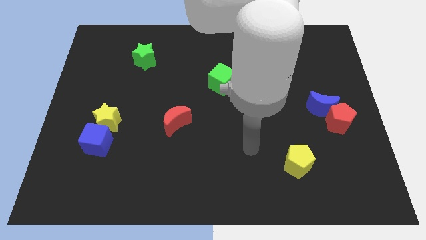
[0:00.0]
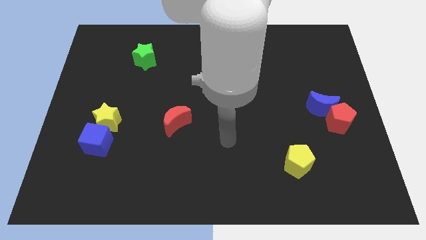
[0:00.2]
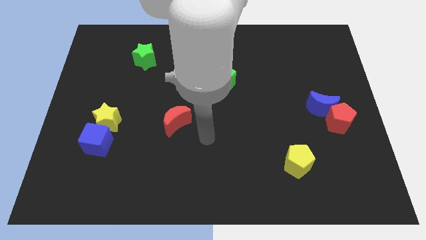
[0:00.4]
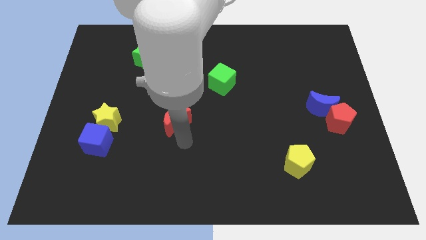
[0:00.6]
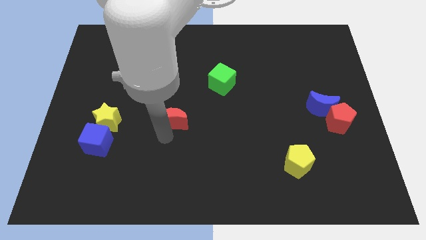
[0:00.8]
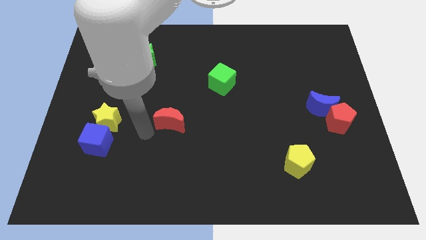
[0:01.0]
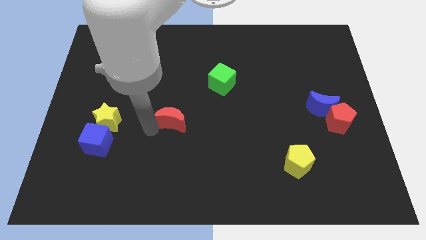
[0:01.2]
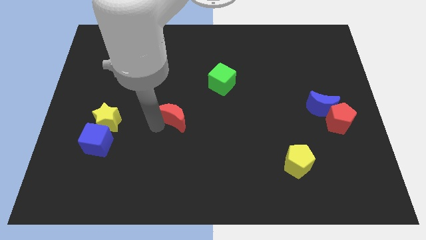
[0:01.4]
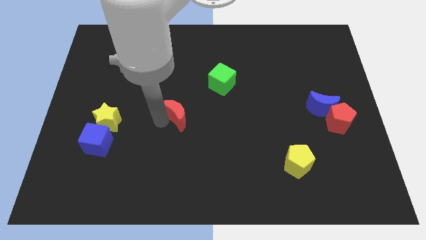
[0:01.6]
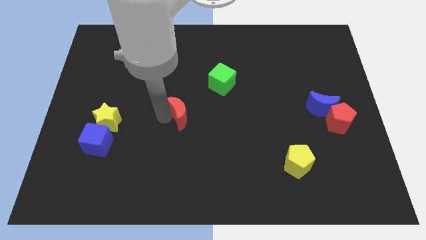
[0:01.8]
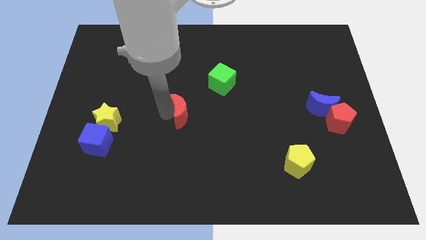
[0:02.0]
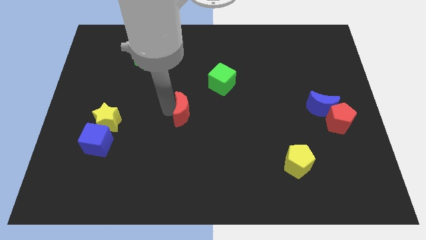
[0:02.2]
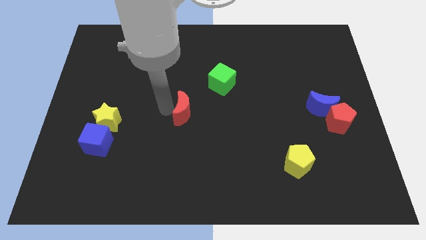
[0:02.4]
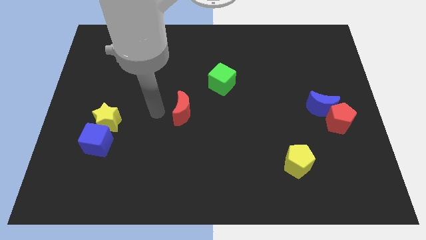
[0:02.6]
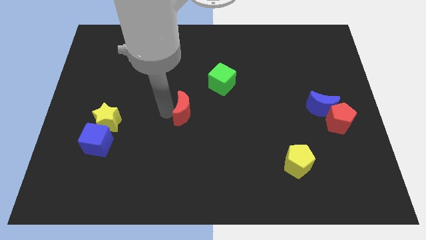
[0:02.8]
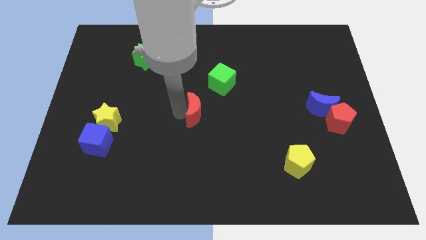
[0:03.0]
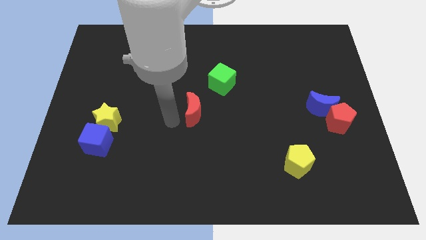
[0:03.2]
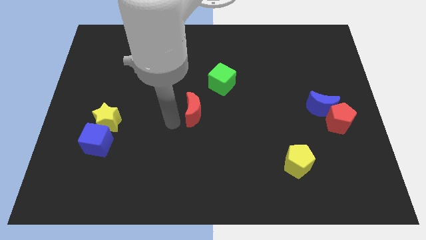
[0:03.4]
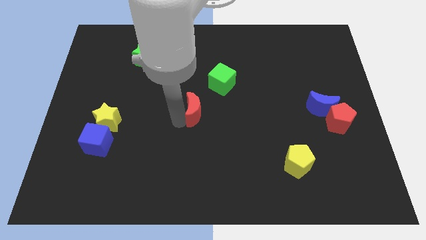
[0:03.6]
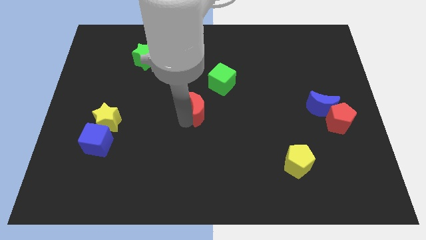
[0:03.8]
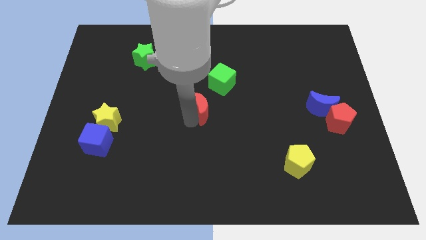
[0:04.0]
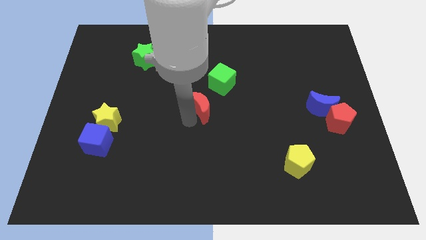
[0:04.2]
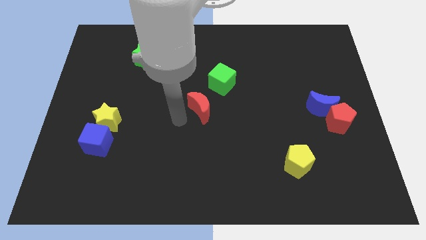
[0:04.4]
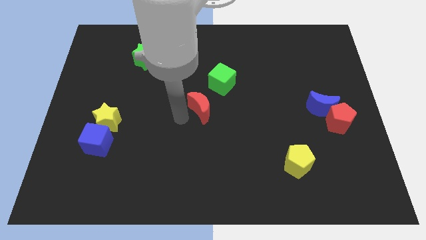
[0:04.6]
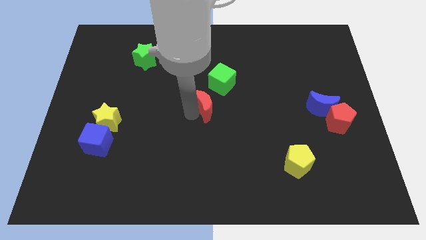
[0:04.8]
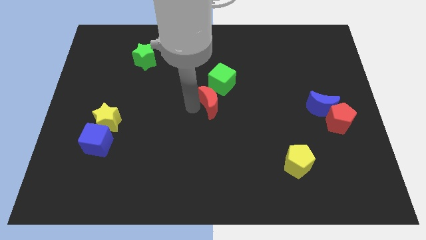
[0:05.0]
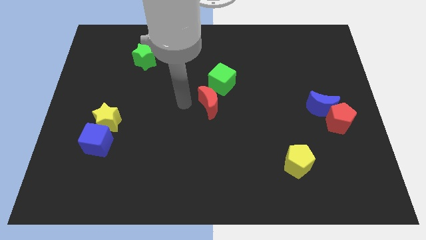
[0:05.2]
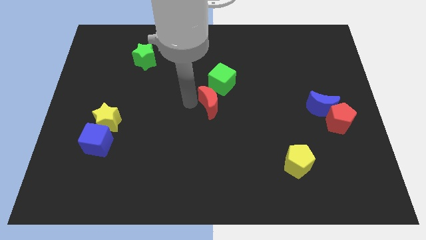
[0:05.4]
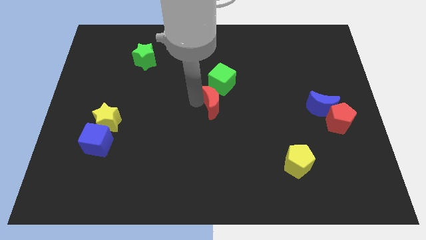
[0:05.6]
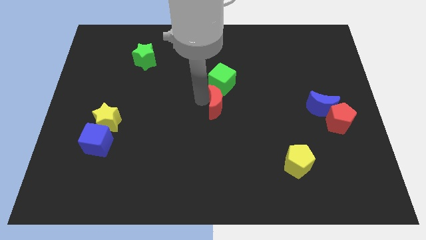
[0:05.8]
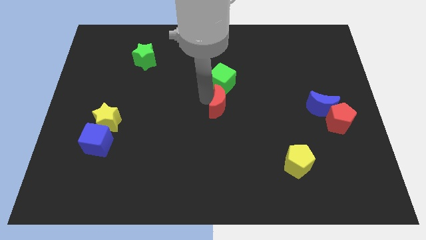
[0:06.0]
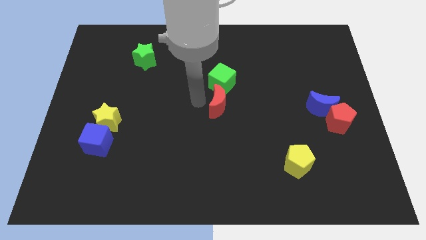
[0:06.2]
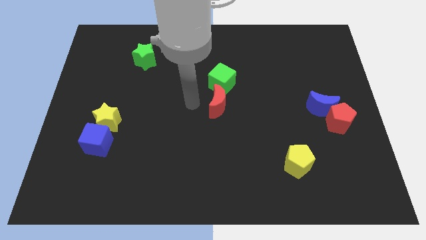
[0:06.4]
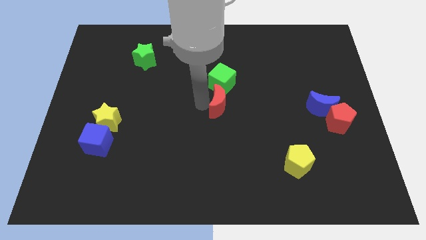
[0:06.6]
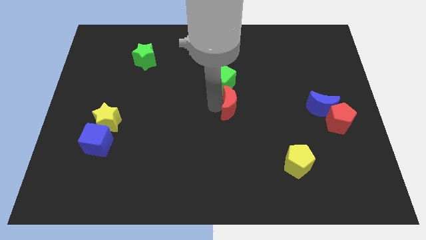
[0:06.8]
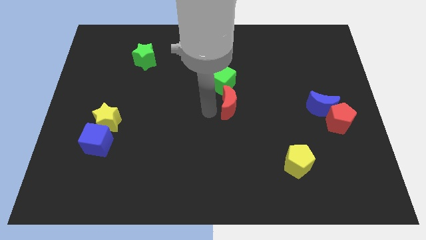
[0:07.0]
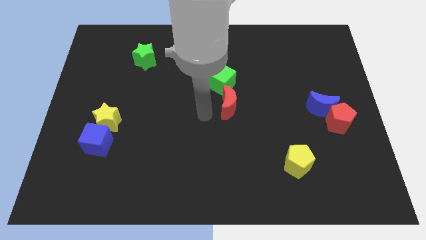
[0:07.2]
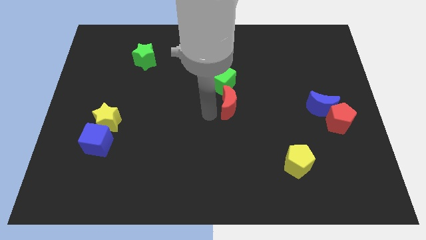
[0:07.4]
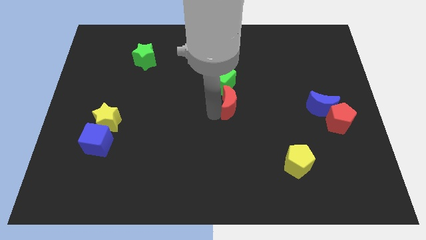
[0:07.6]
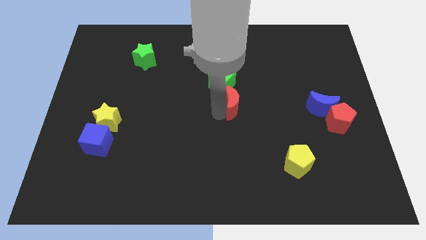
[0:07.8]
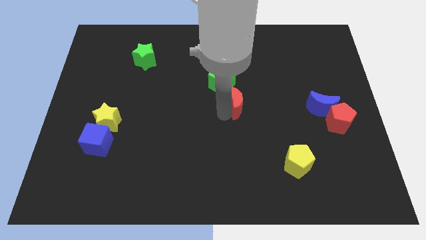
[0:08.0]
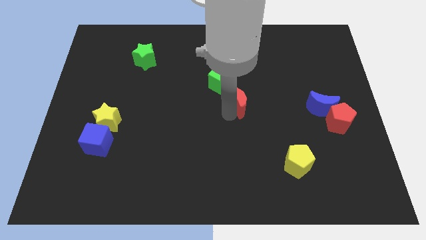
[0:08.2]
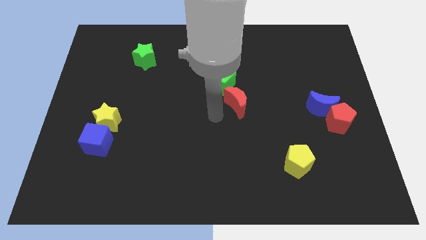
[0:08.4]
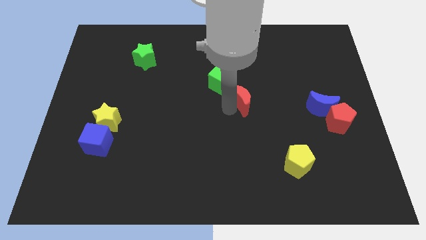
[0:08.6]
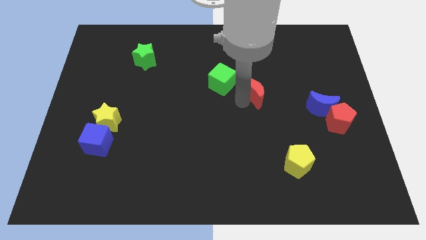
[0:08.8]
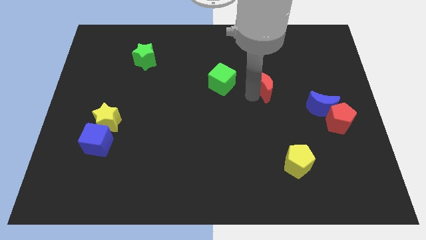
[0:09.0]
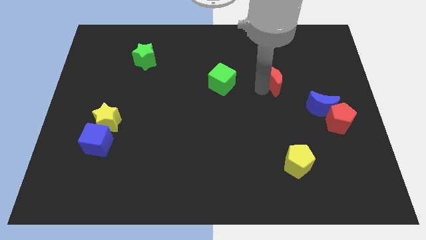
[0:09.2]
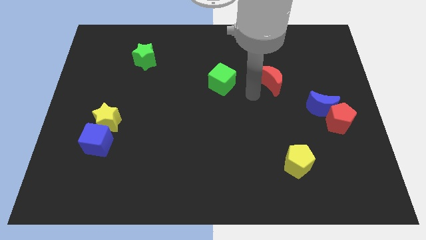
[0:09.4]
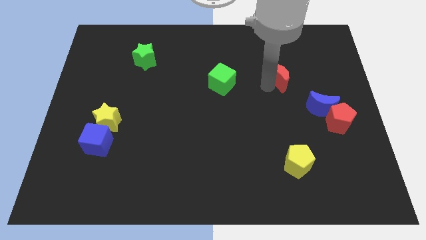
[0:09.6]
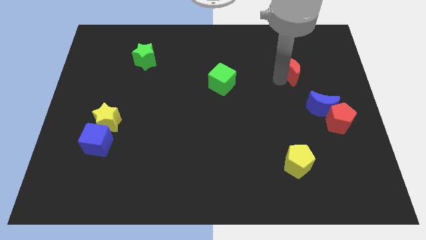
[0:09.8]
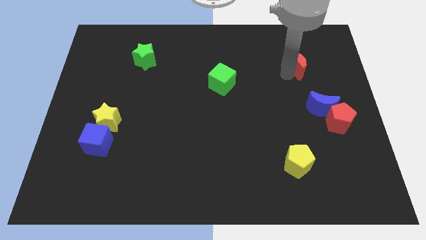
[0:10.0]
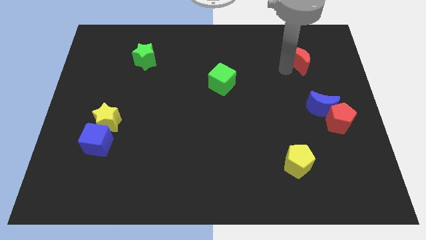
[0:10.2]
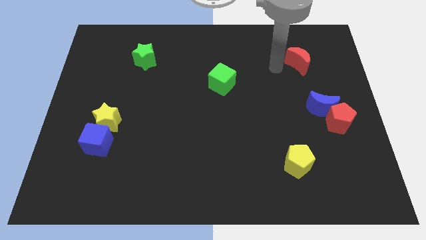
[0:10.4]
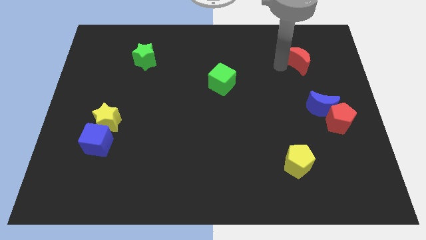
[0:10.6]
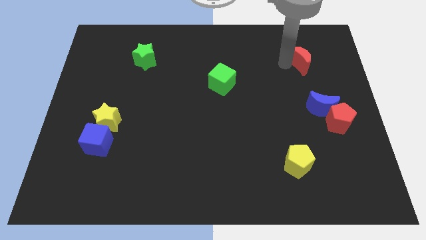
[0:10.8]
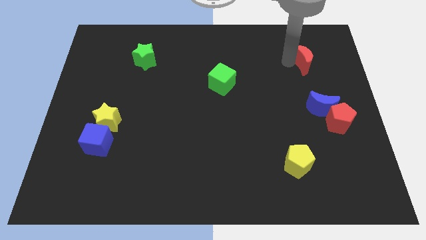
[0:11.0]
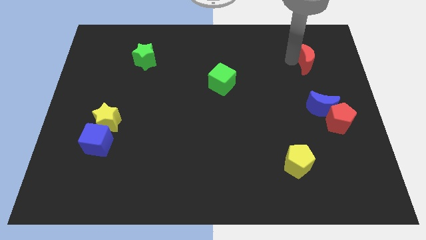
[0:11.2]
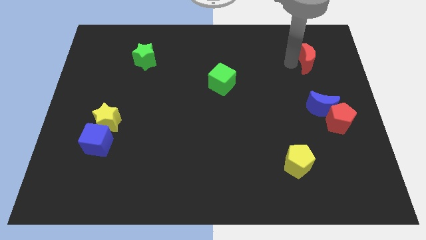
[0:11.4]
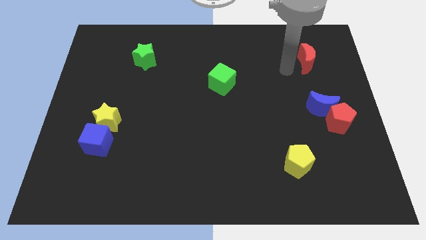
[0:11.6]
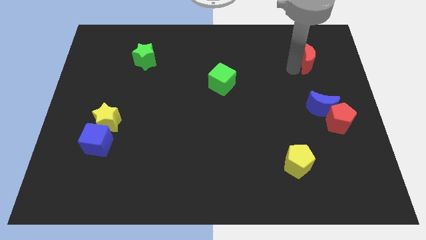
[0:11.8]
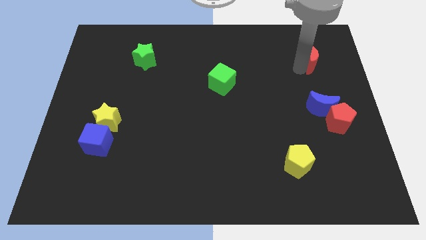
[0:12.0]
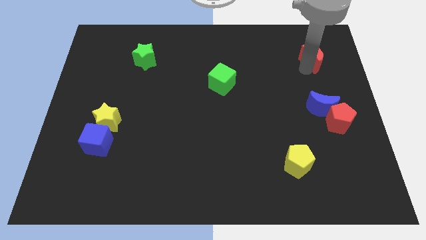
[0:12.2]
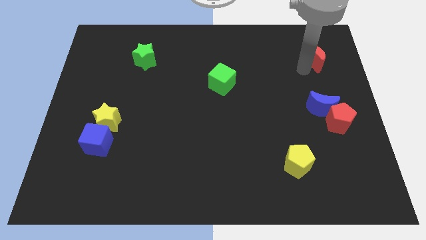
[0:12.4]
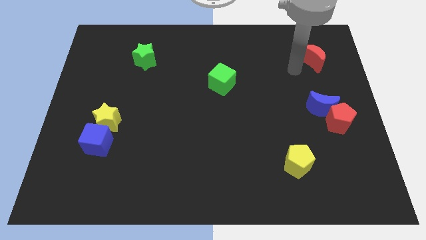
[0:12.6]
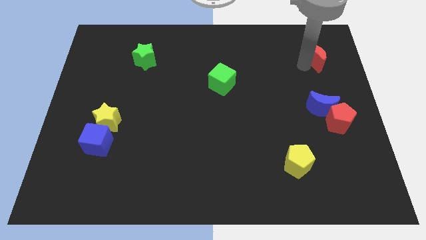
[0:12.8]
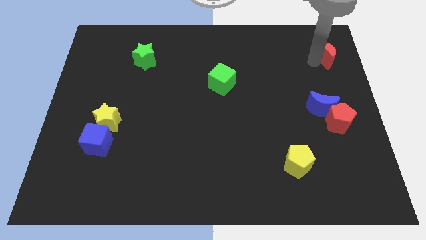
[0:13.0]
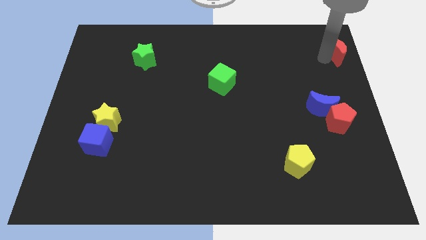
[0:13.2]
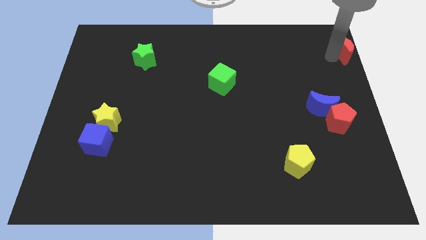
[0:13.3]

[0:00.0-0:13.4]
put the red moon to the top right
